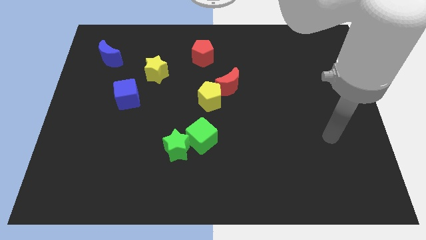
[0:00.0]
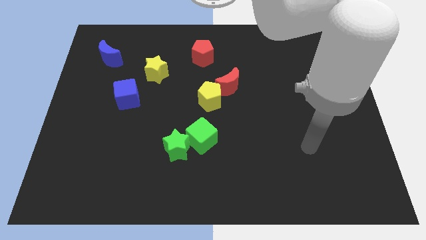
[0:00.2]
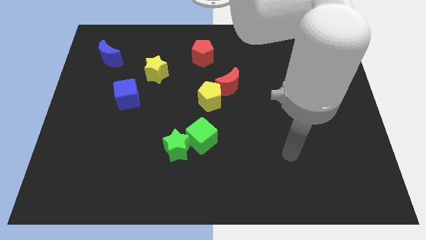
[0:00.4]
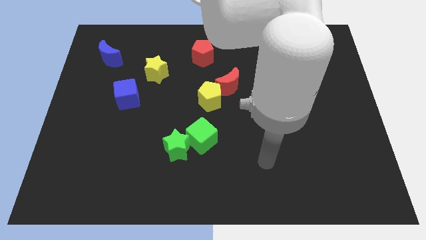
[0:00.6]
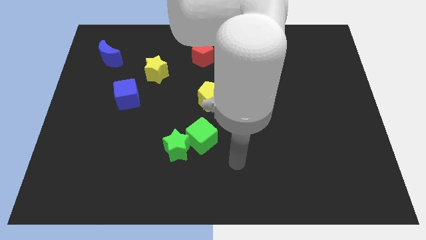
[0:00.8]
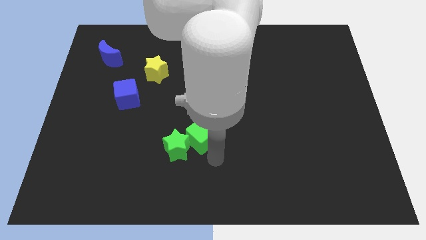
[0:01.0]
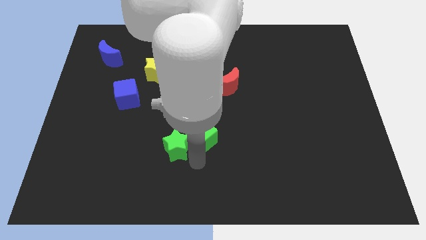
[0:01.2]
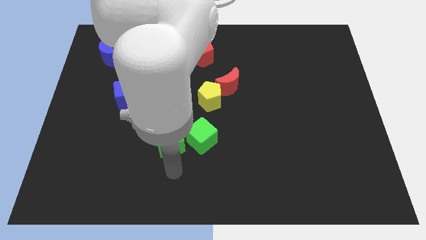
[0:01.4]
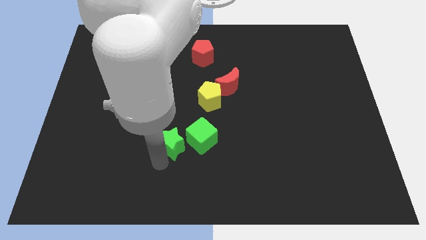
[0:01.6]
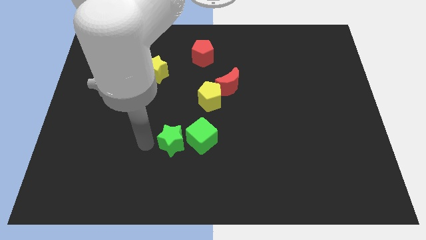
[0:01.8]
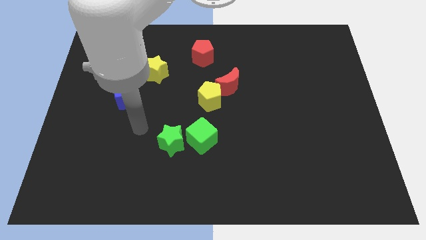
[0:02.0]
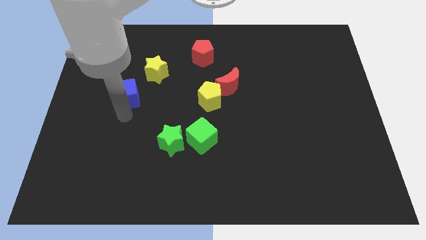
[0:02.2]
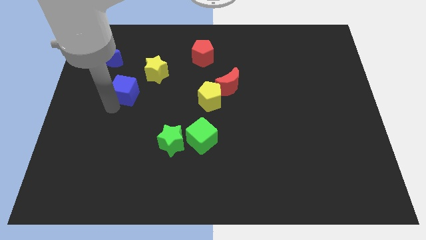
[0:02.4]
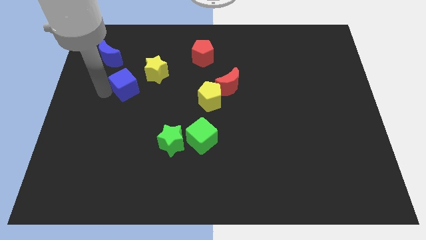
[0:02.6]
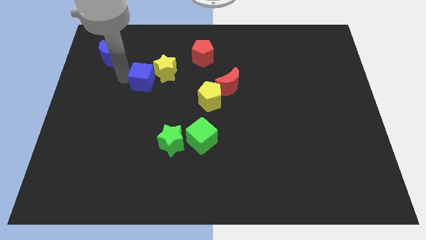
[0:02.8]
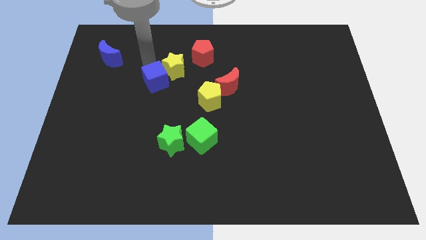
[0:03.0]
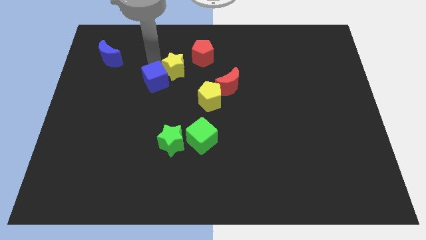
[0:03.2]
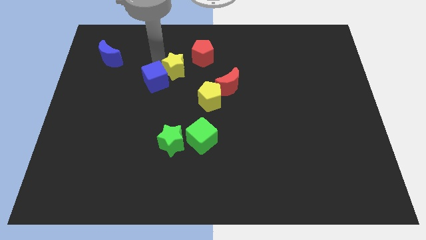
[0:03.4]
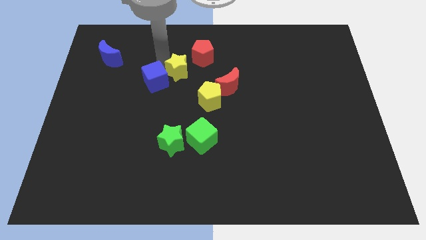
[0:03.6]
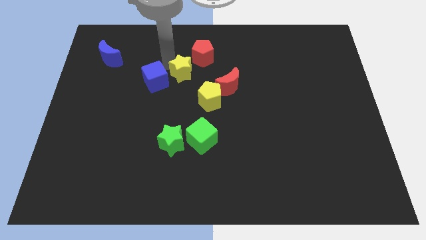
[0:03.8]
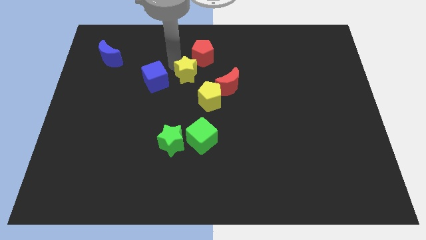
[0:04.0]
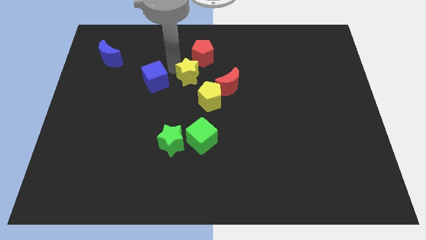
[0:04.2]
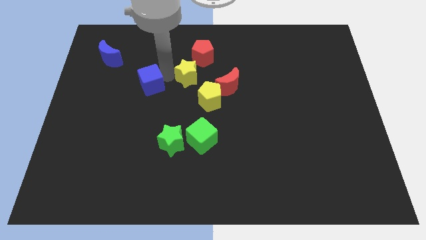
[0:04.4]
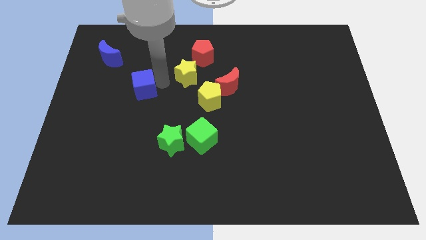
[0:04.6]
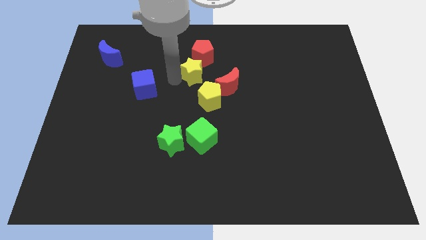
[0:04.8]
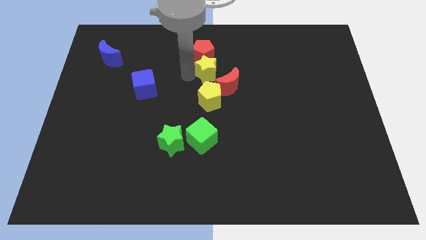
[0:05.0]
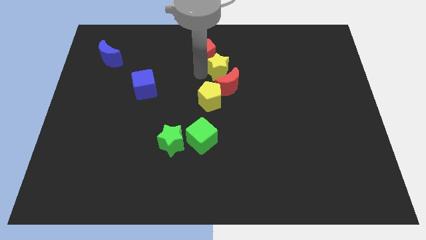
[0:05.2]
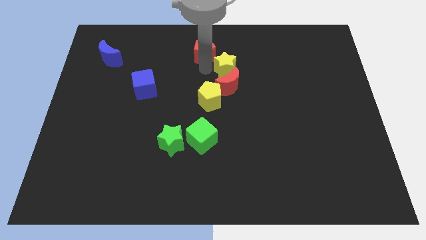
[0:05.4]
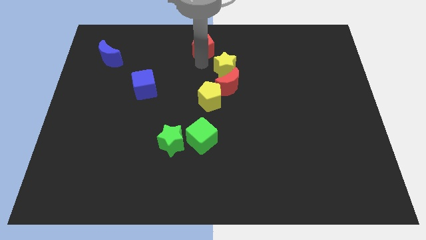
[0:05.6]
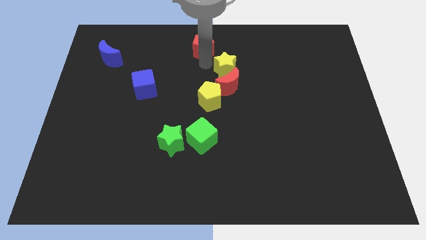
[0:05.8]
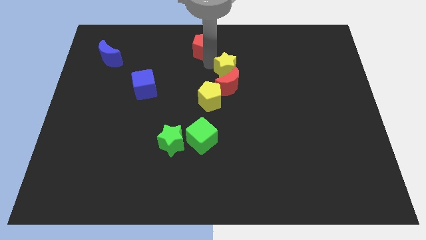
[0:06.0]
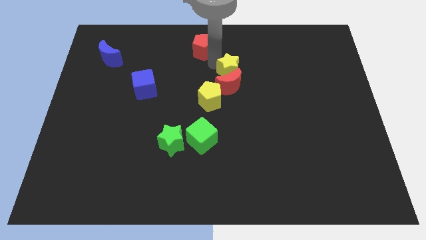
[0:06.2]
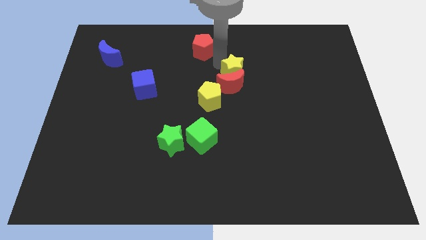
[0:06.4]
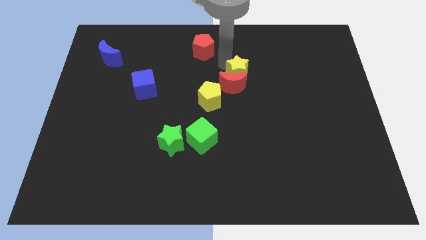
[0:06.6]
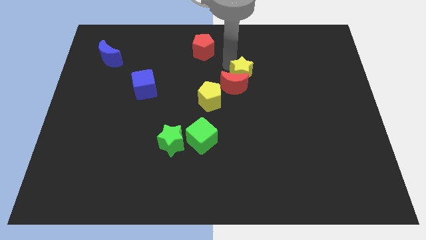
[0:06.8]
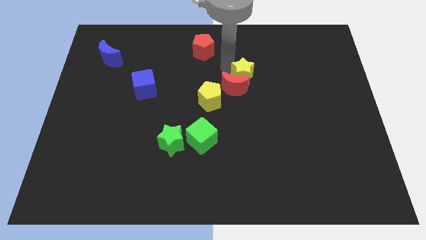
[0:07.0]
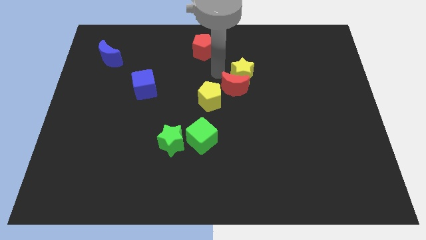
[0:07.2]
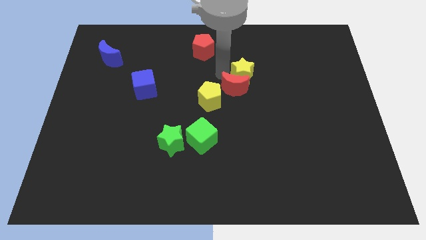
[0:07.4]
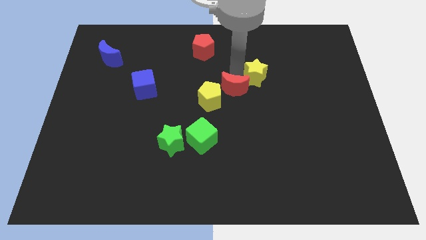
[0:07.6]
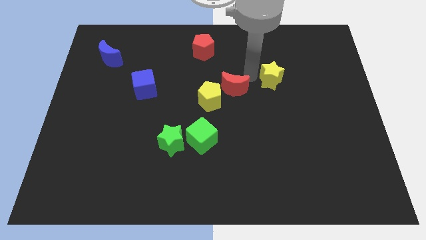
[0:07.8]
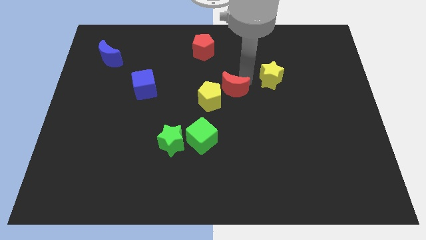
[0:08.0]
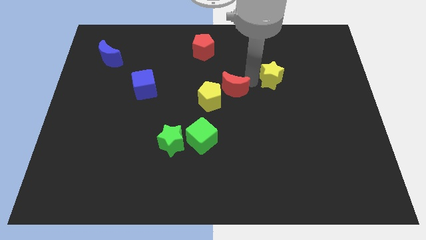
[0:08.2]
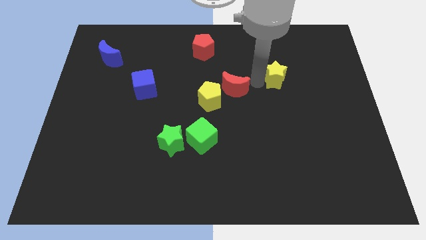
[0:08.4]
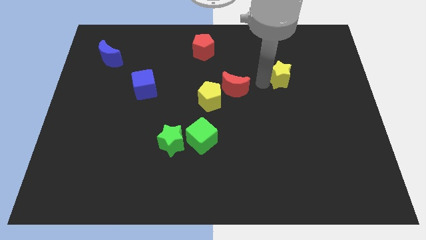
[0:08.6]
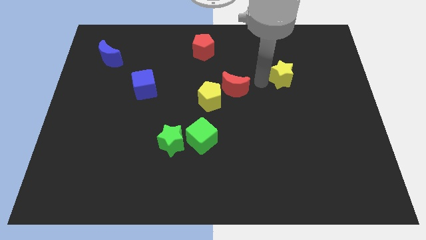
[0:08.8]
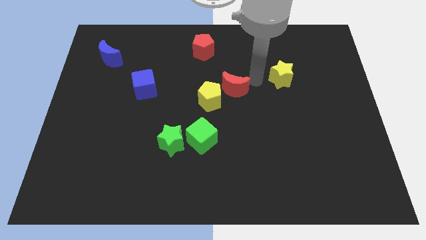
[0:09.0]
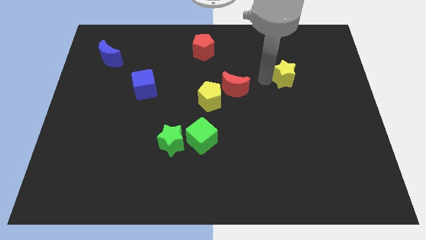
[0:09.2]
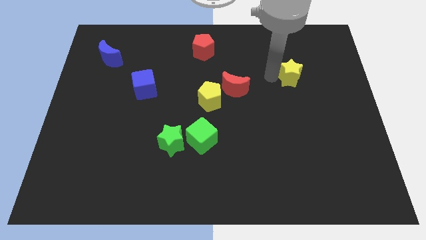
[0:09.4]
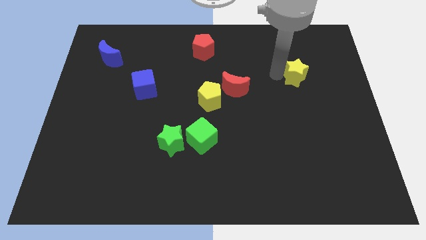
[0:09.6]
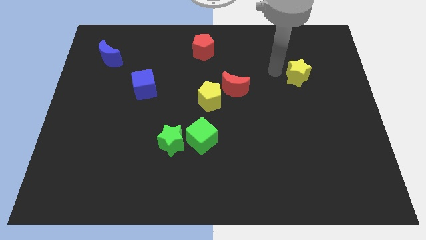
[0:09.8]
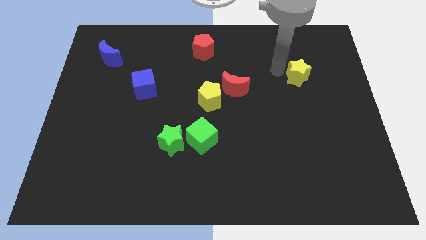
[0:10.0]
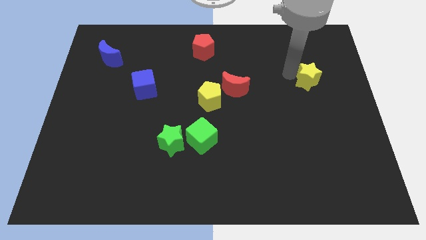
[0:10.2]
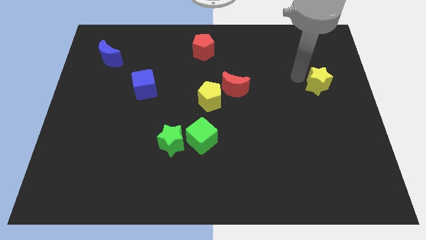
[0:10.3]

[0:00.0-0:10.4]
slide the yellow star to the right side of the board

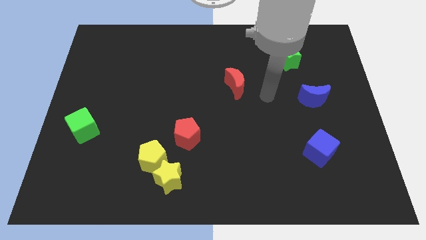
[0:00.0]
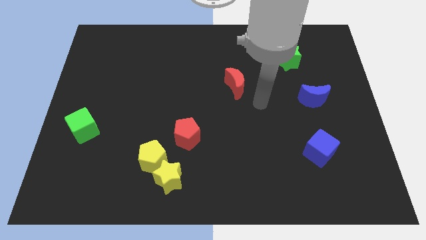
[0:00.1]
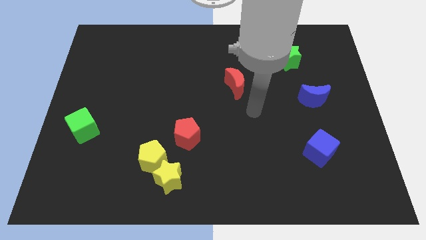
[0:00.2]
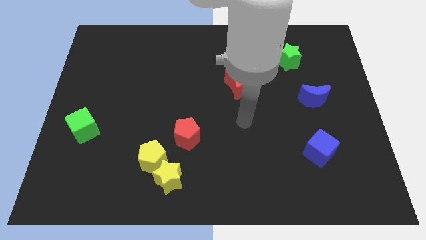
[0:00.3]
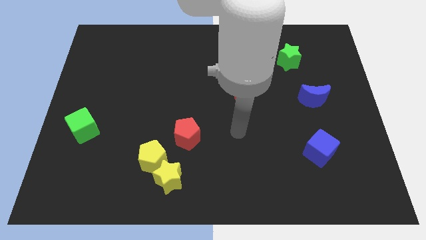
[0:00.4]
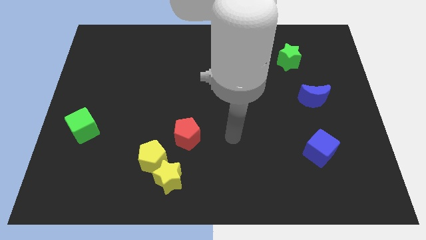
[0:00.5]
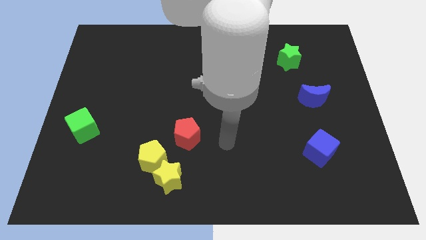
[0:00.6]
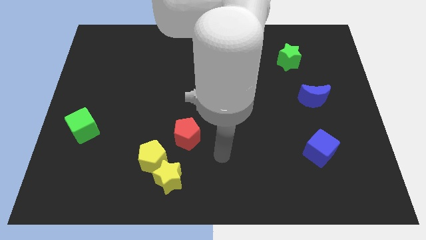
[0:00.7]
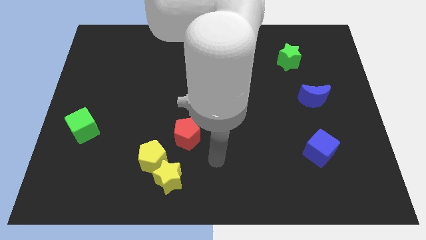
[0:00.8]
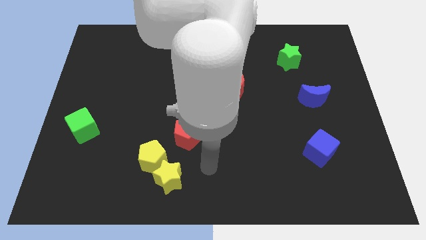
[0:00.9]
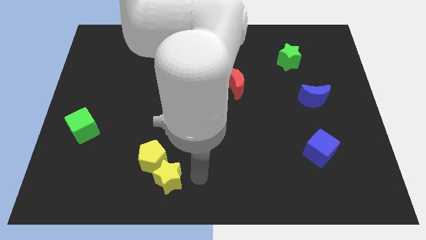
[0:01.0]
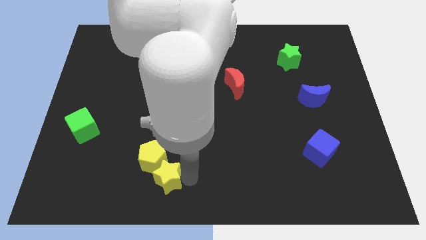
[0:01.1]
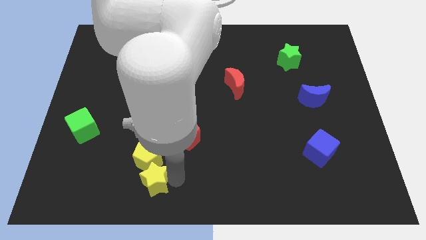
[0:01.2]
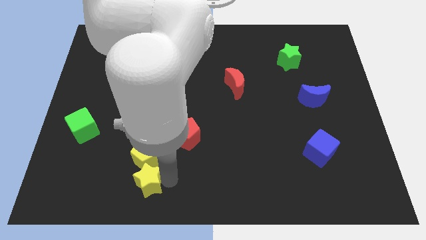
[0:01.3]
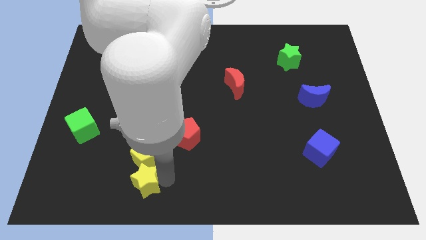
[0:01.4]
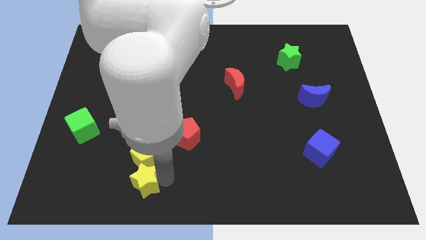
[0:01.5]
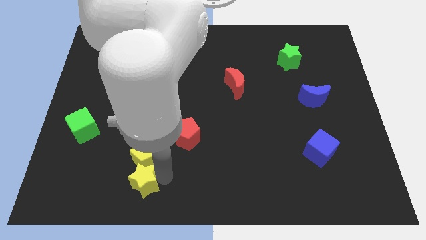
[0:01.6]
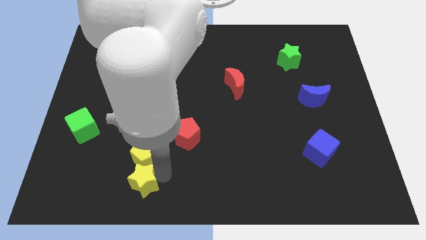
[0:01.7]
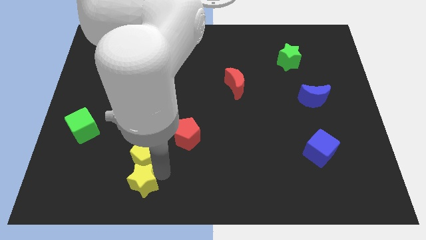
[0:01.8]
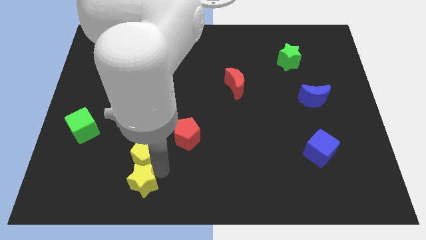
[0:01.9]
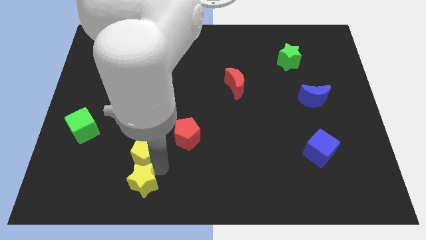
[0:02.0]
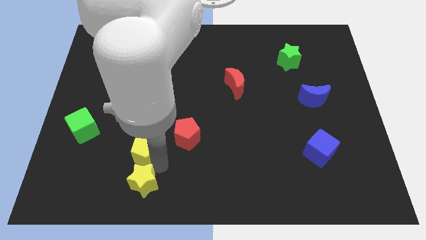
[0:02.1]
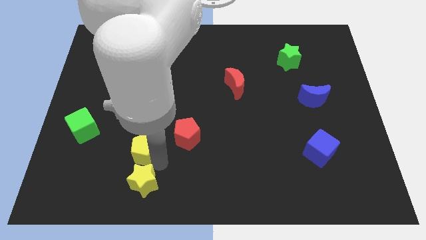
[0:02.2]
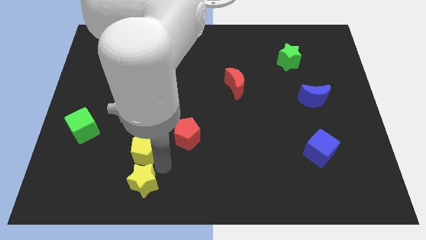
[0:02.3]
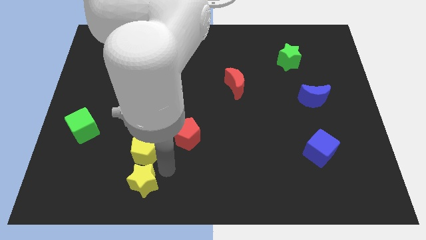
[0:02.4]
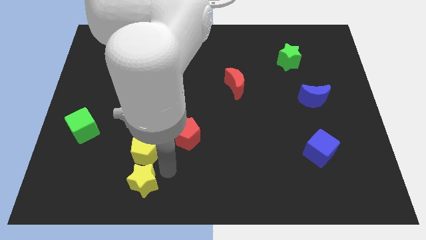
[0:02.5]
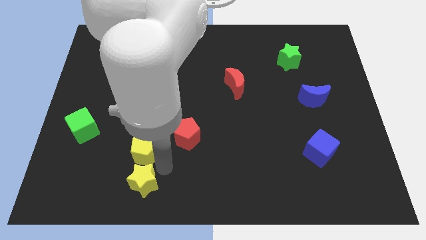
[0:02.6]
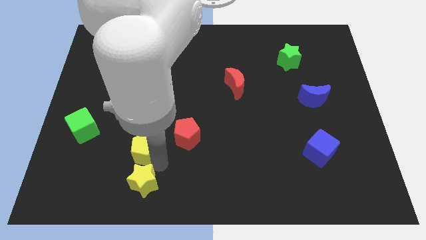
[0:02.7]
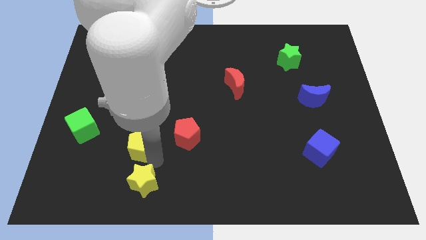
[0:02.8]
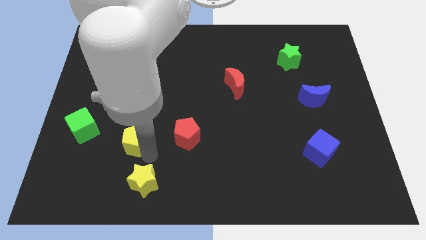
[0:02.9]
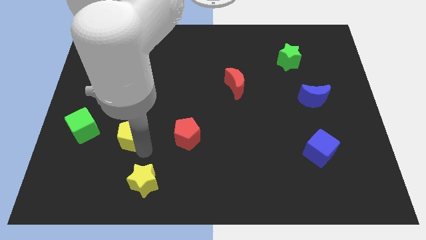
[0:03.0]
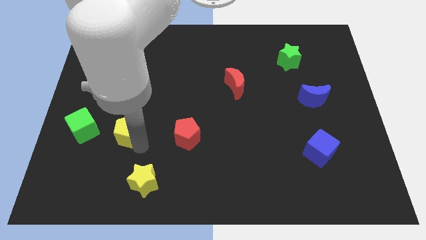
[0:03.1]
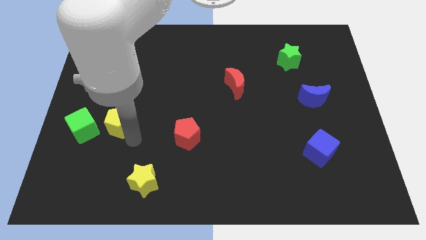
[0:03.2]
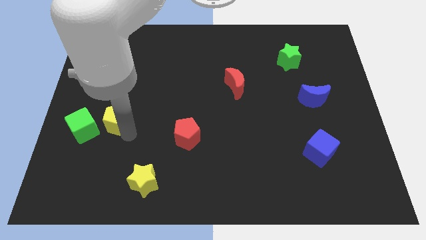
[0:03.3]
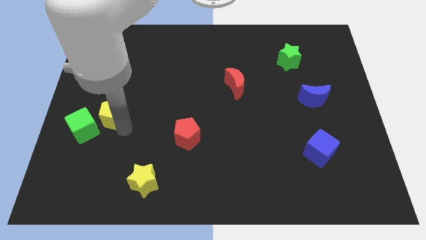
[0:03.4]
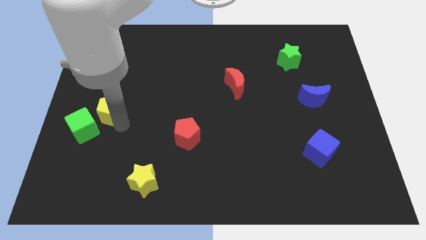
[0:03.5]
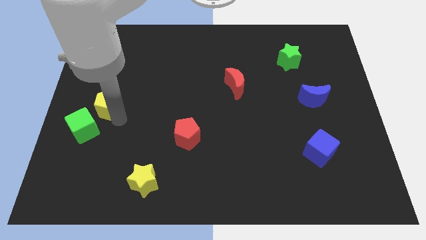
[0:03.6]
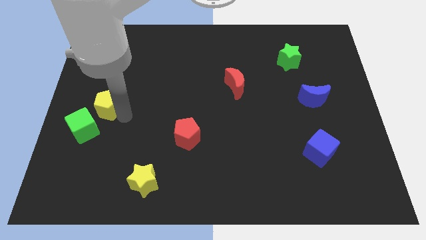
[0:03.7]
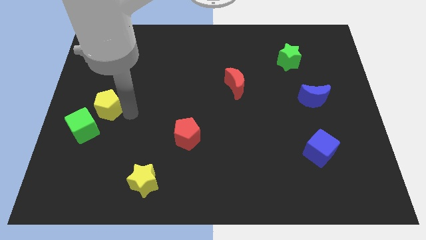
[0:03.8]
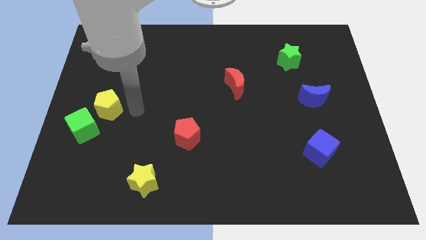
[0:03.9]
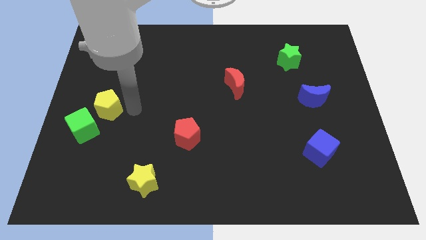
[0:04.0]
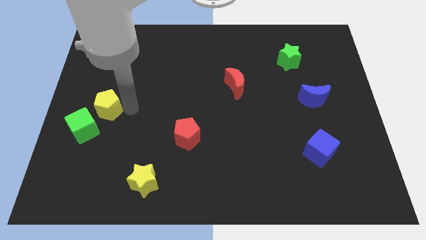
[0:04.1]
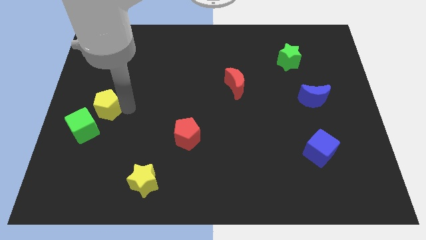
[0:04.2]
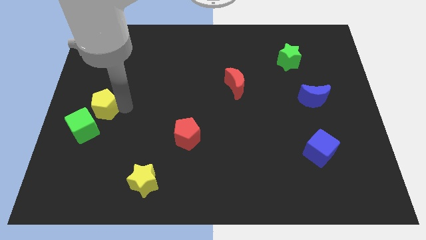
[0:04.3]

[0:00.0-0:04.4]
put the yellow pentagon to the left side
